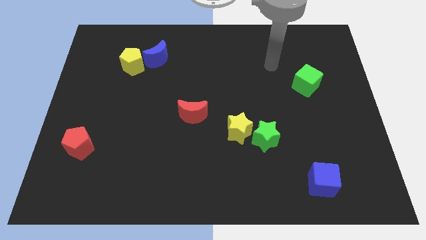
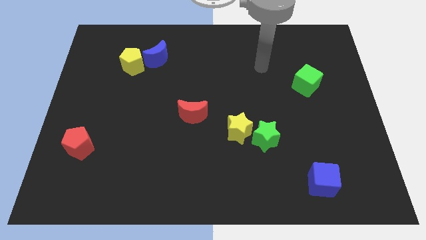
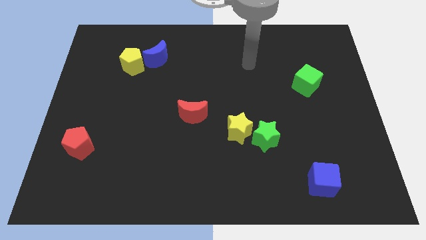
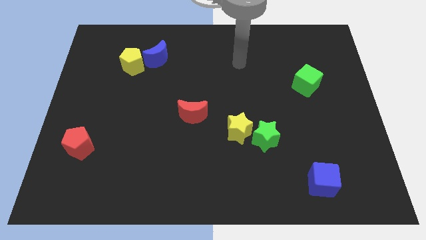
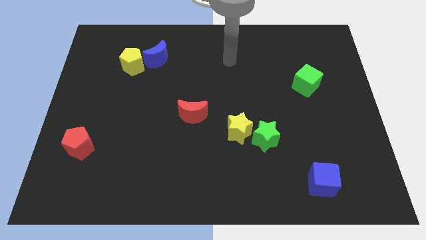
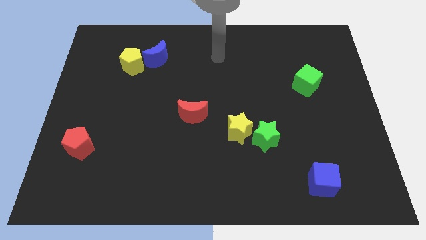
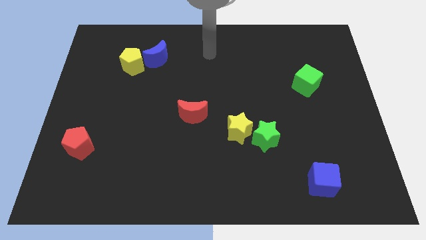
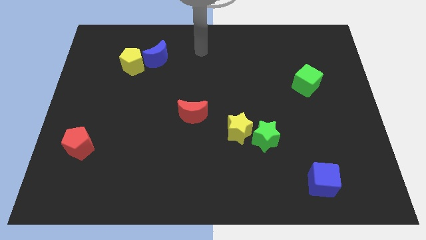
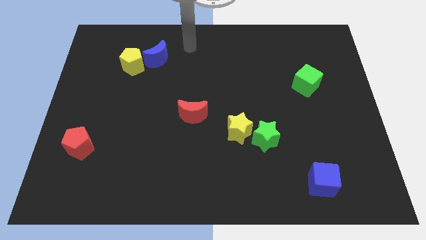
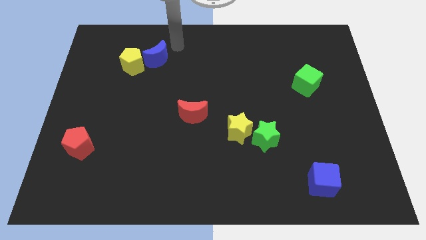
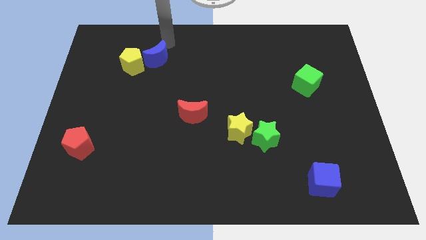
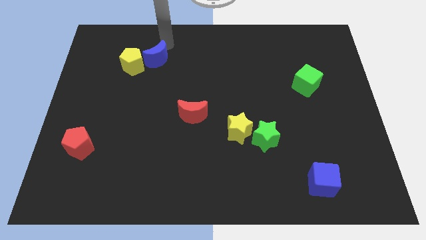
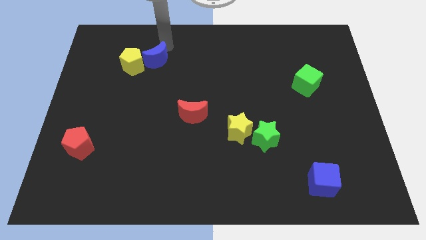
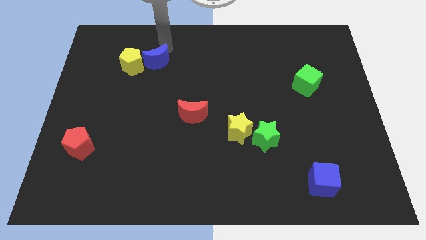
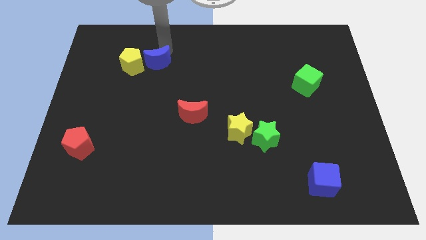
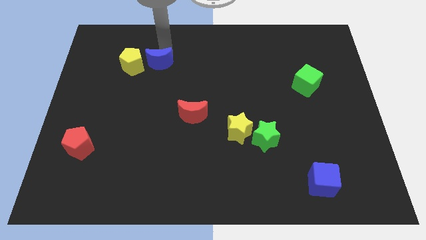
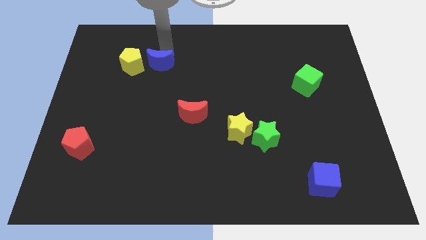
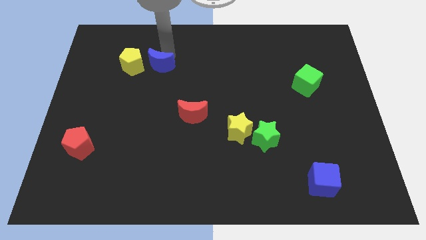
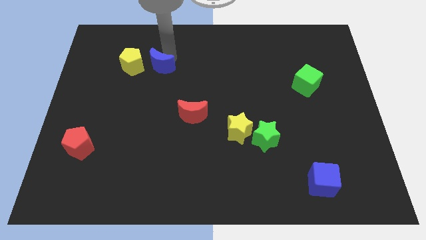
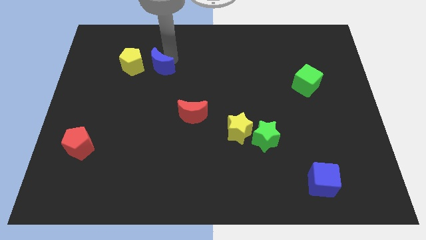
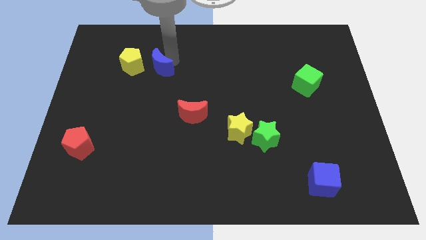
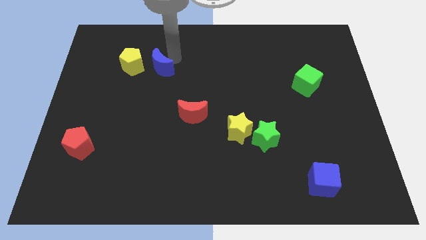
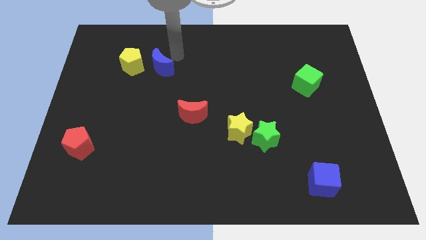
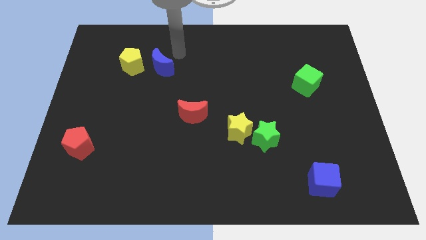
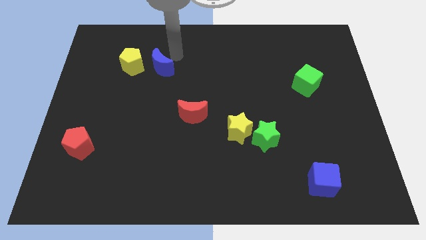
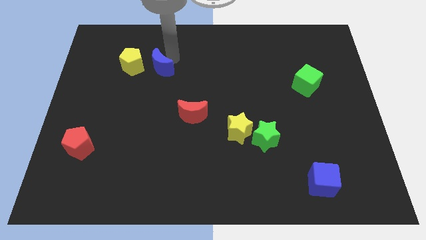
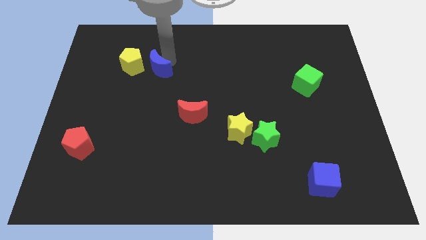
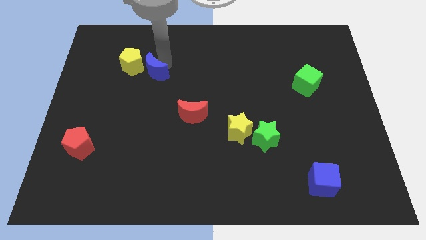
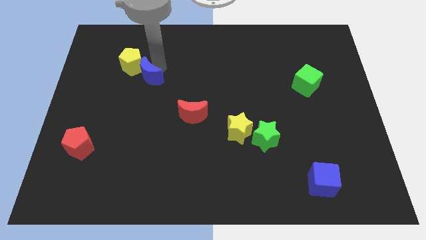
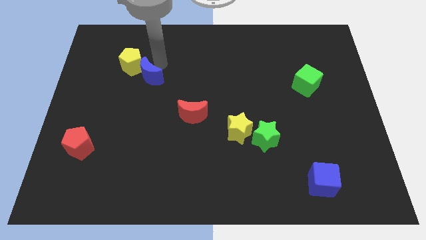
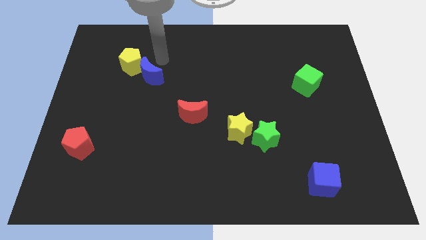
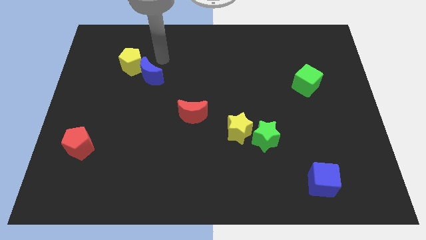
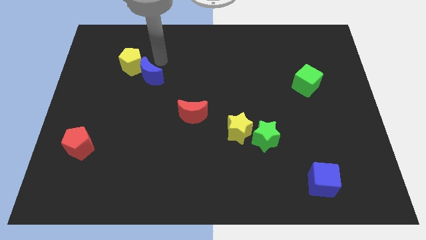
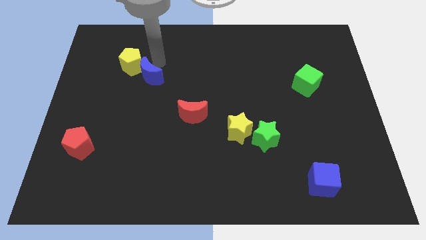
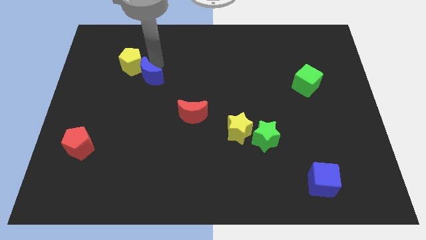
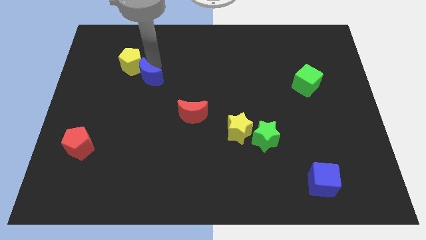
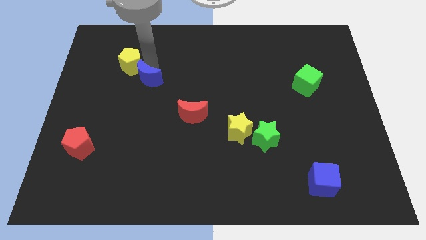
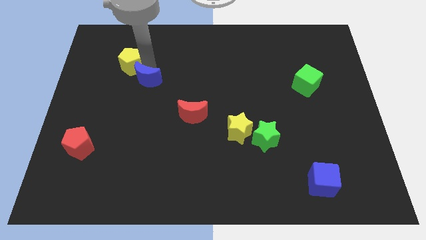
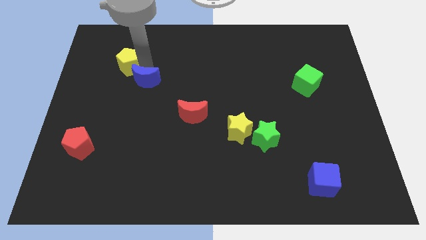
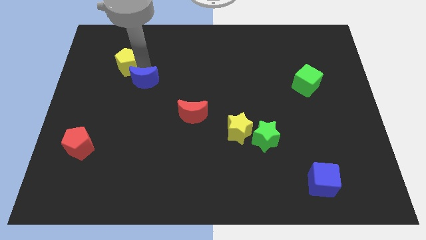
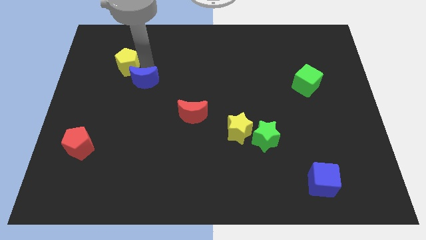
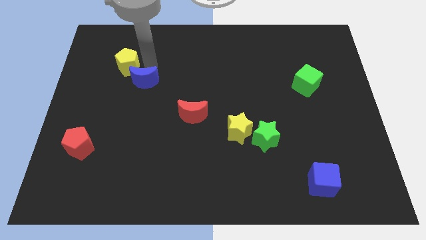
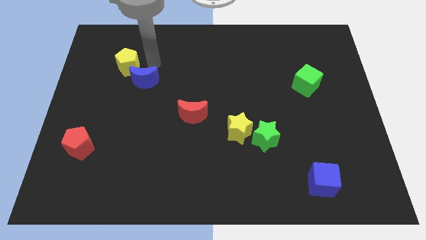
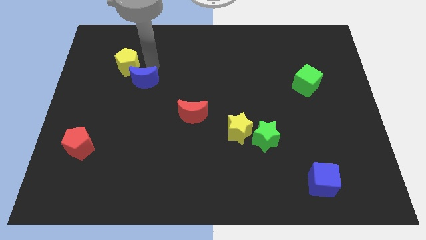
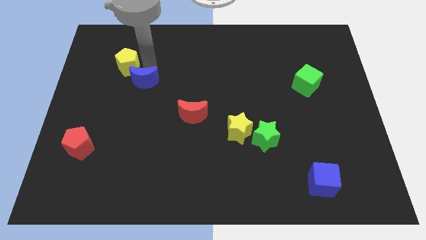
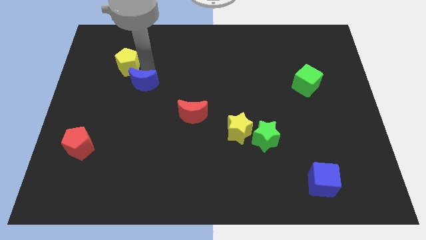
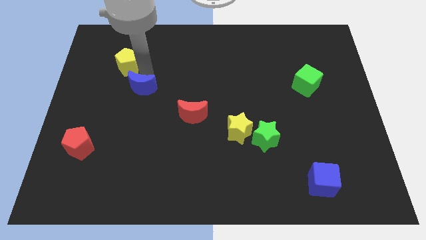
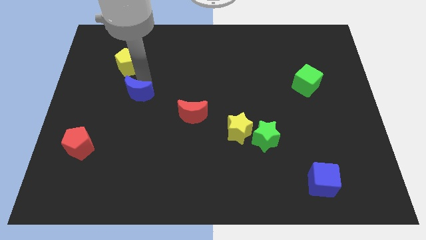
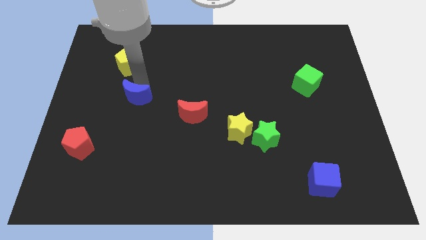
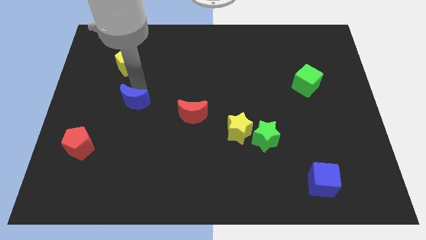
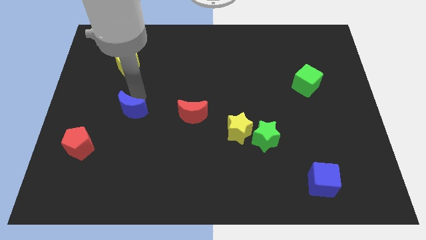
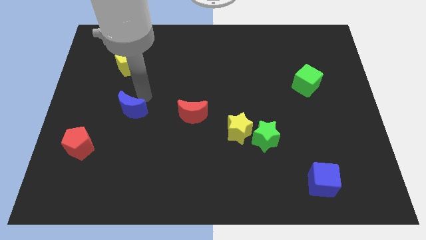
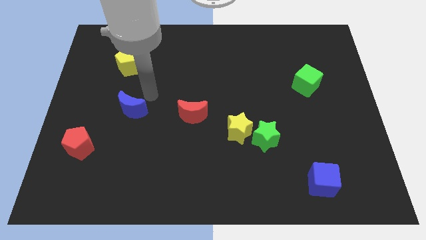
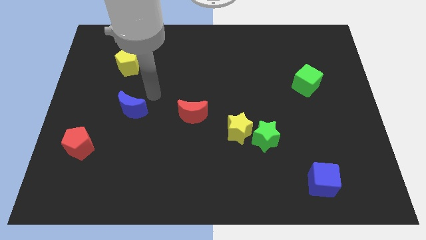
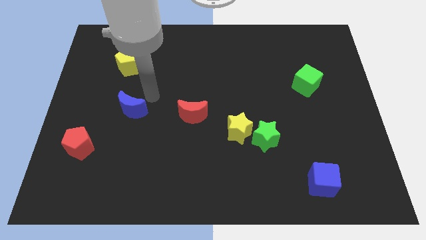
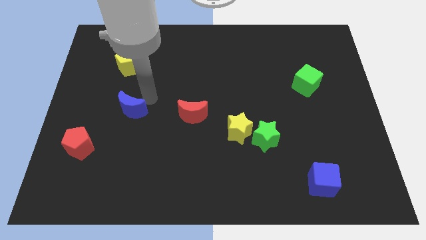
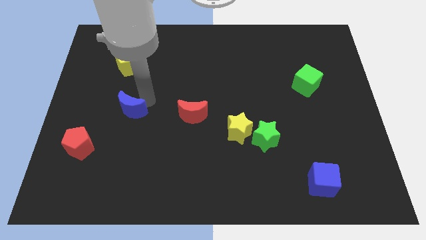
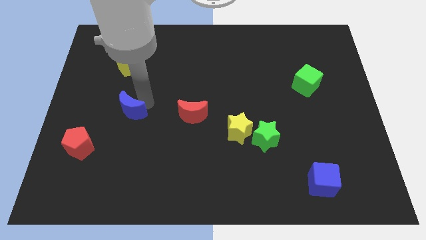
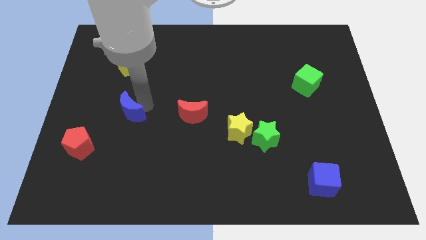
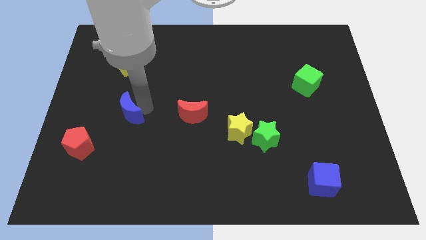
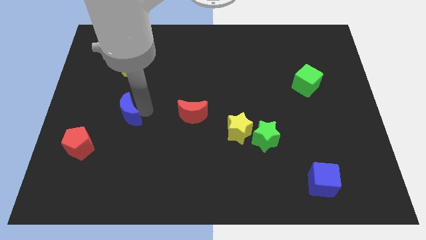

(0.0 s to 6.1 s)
put the blue moon to the top right side of the red pentagon

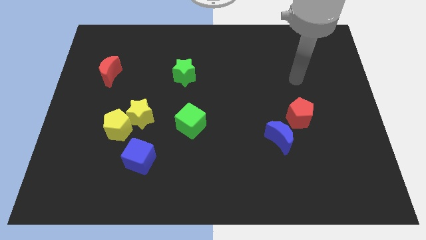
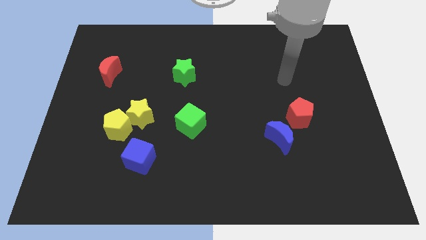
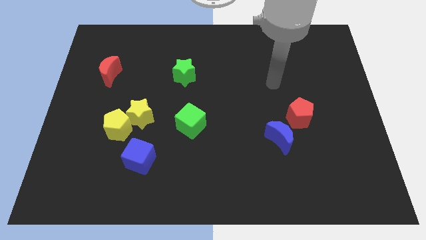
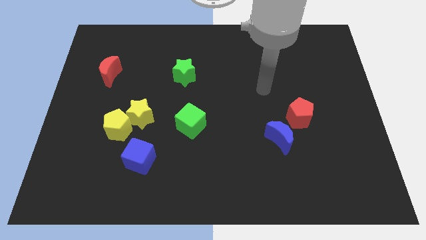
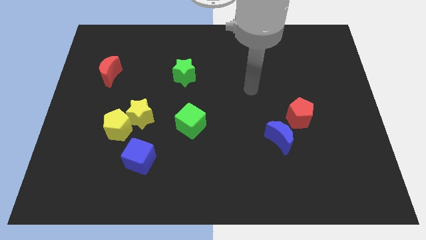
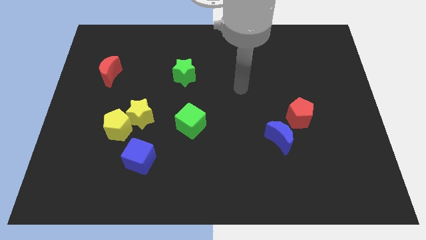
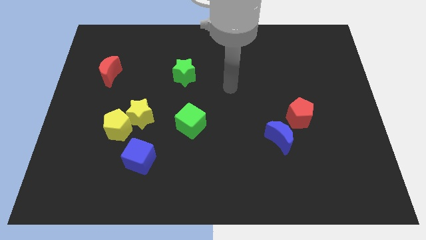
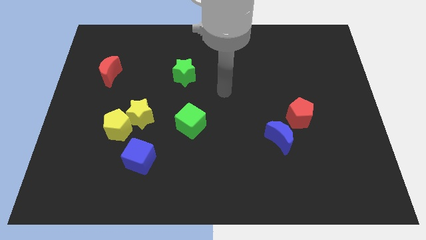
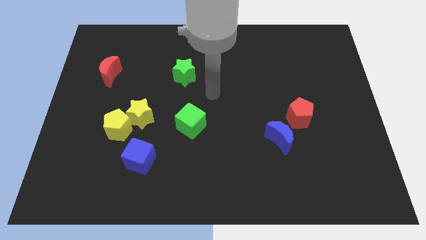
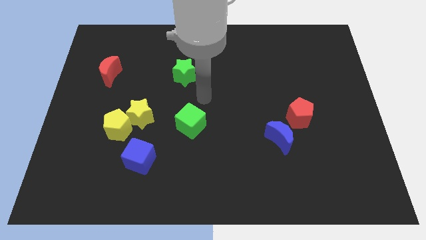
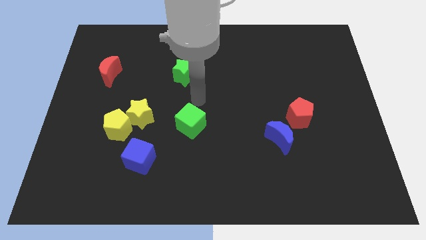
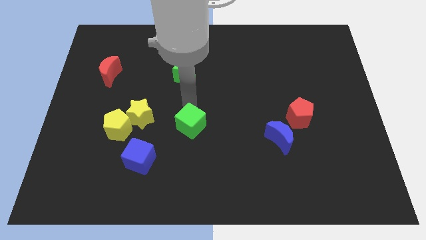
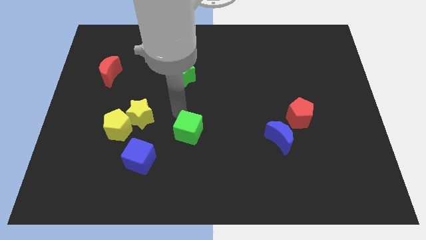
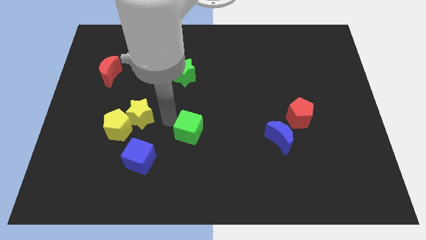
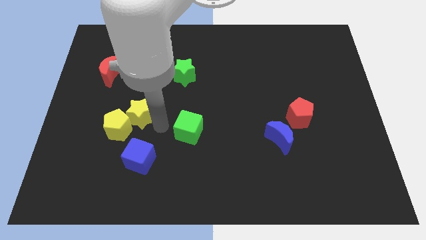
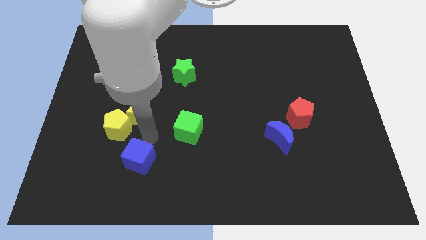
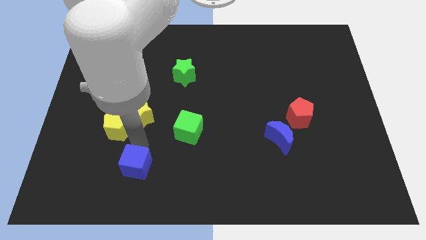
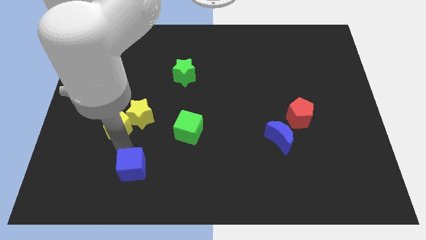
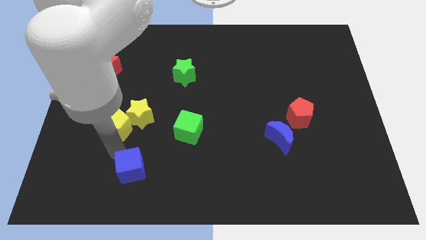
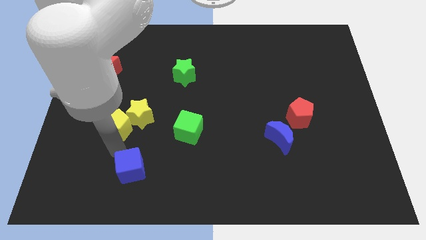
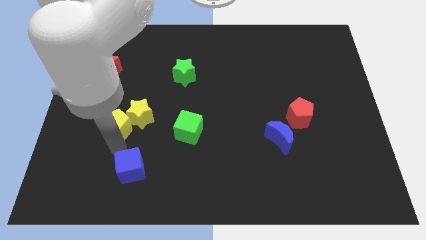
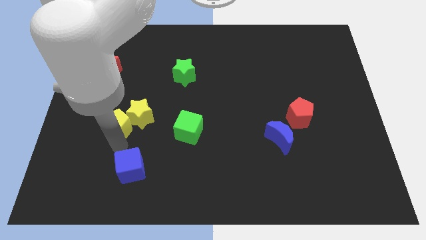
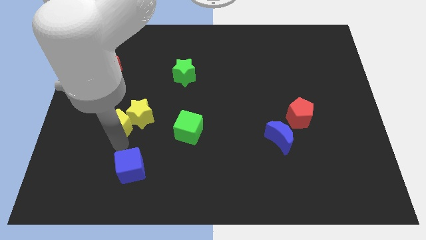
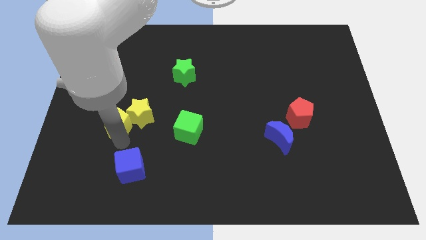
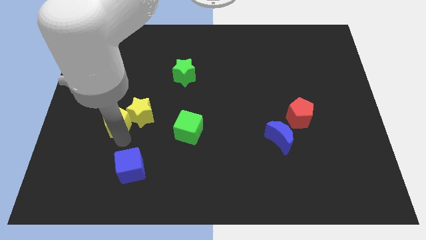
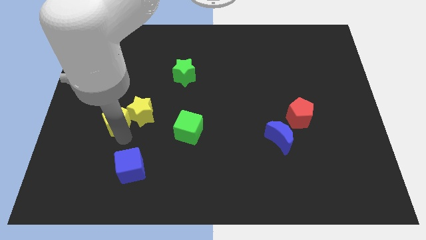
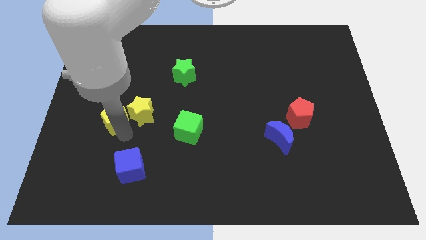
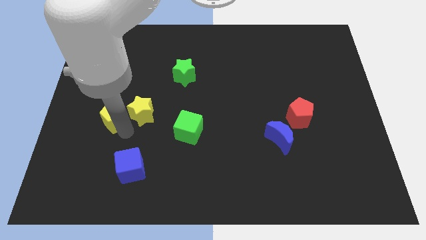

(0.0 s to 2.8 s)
put the yellow pentagon to the top left of the yellow star
